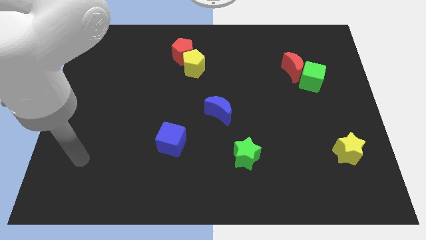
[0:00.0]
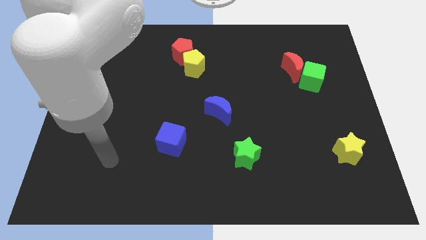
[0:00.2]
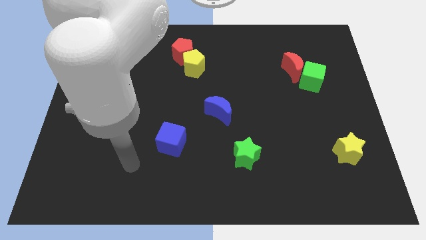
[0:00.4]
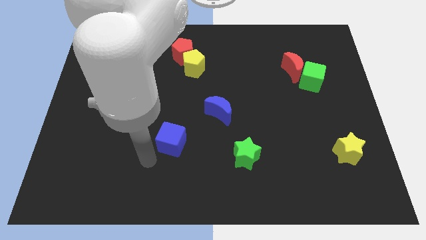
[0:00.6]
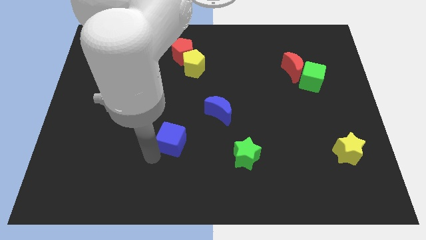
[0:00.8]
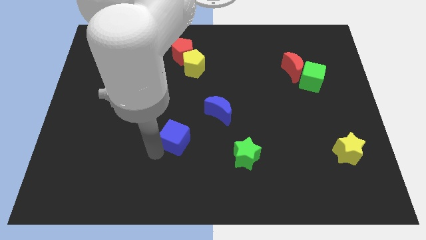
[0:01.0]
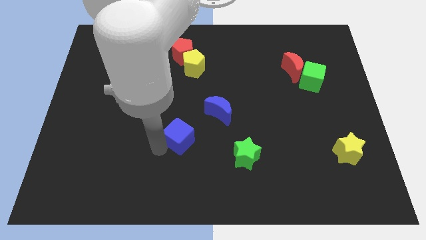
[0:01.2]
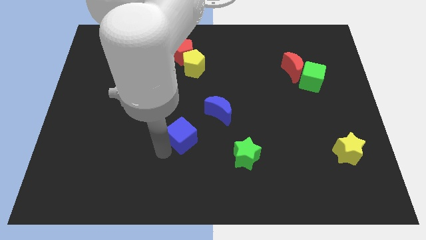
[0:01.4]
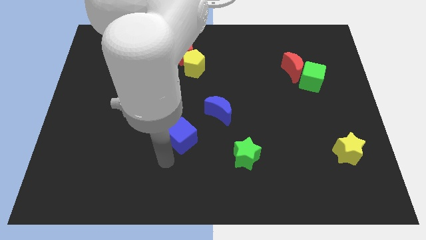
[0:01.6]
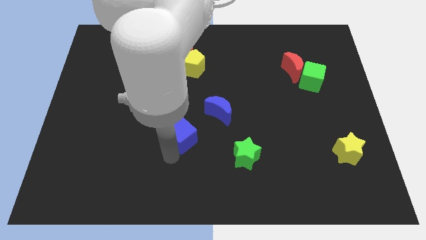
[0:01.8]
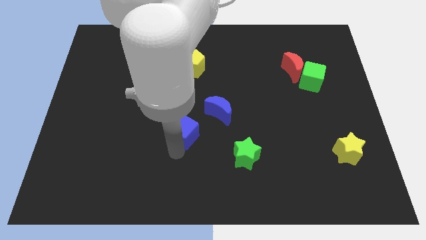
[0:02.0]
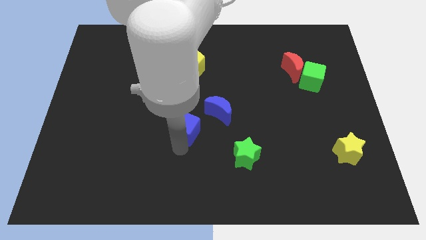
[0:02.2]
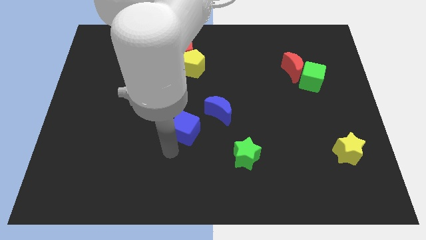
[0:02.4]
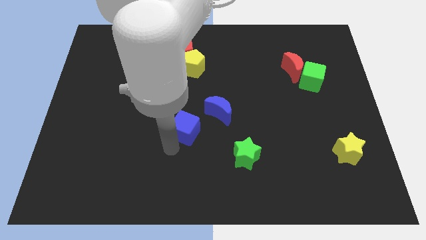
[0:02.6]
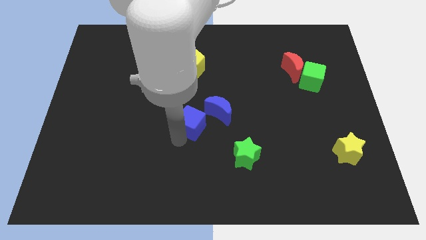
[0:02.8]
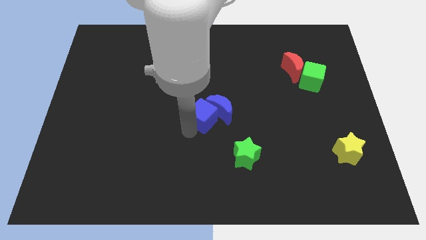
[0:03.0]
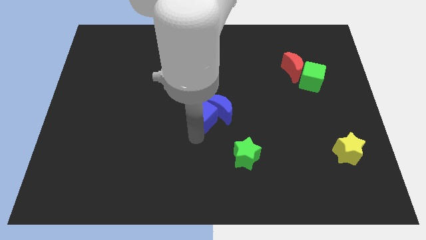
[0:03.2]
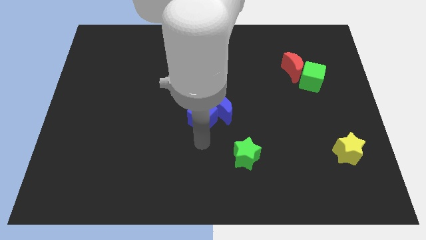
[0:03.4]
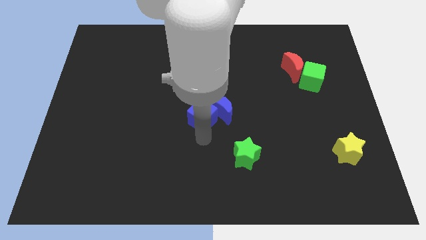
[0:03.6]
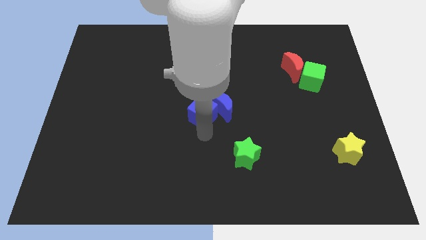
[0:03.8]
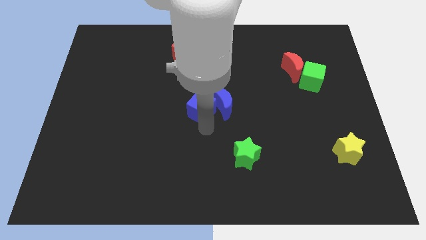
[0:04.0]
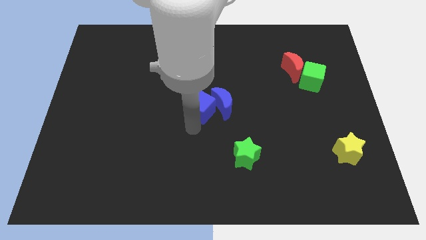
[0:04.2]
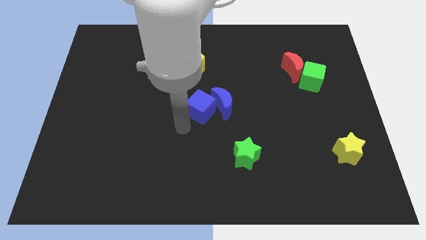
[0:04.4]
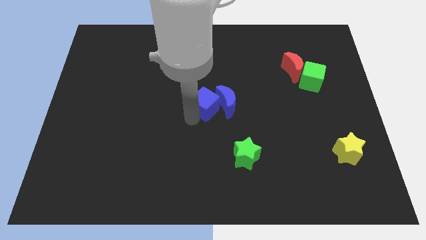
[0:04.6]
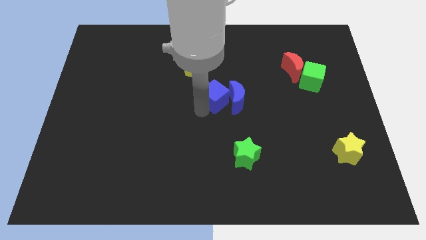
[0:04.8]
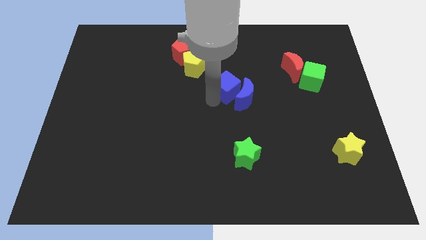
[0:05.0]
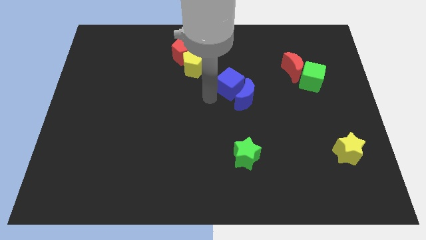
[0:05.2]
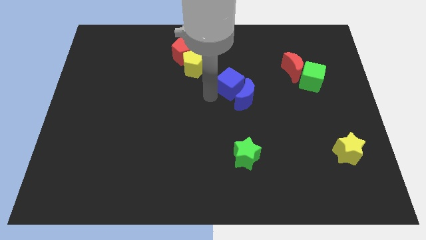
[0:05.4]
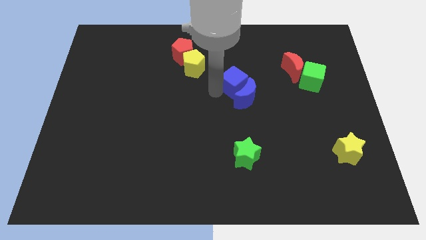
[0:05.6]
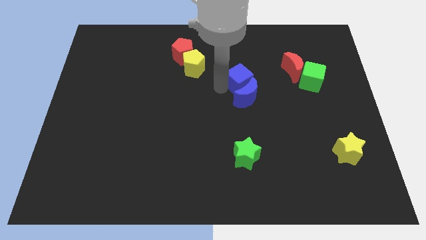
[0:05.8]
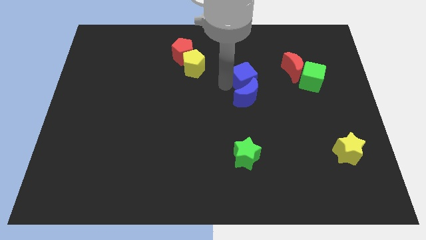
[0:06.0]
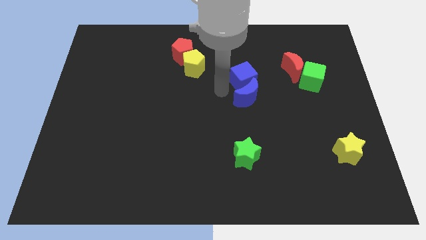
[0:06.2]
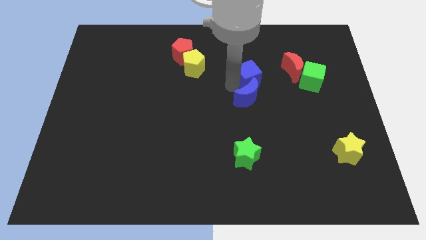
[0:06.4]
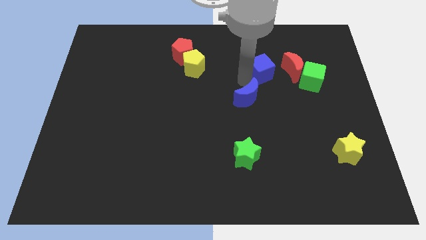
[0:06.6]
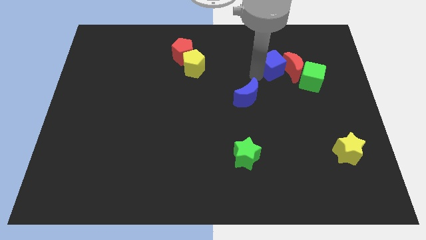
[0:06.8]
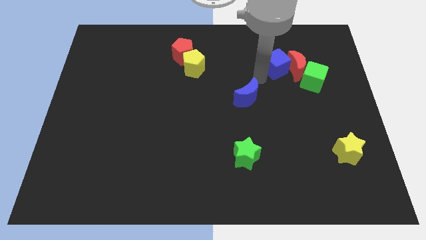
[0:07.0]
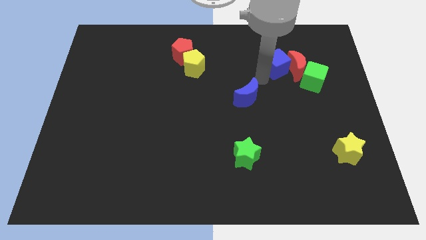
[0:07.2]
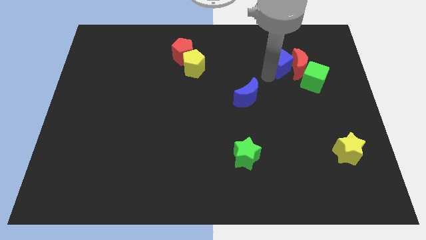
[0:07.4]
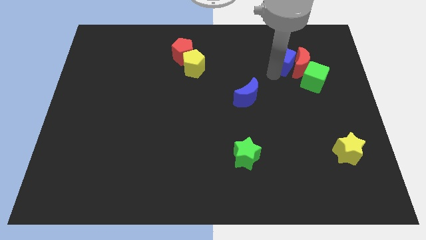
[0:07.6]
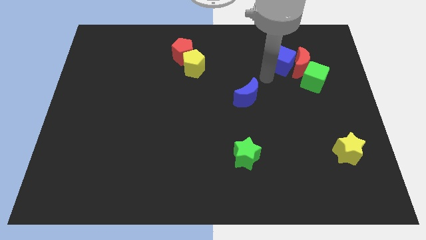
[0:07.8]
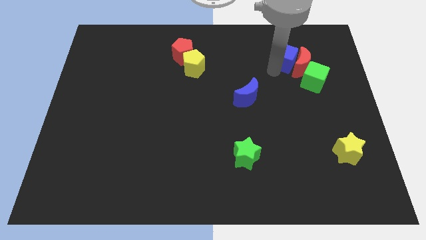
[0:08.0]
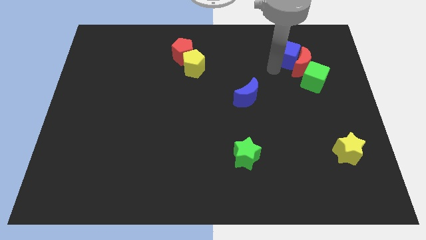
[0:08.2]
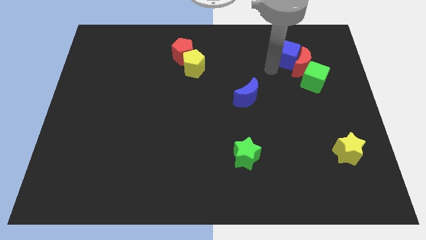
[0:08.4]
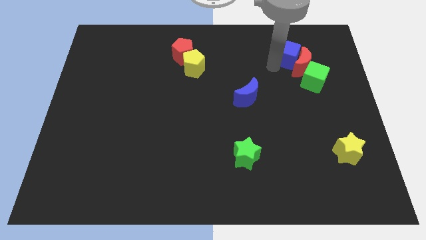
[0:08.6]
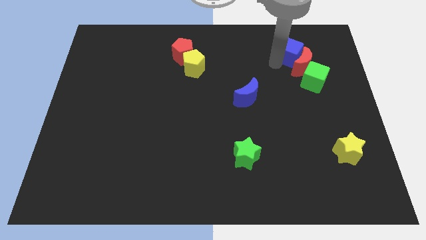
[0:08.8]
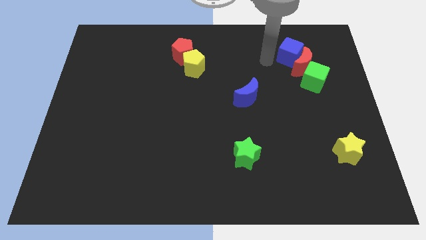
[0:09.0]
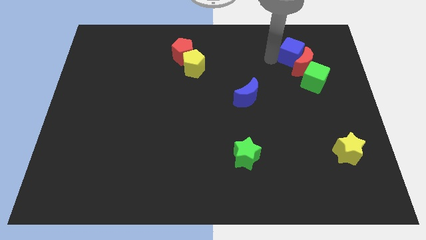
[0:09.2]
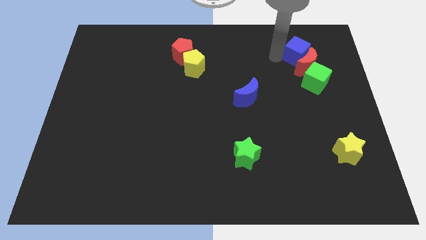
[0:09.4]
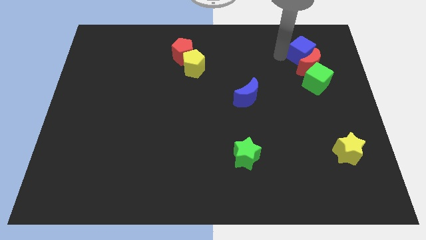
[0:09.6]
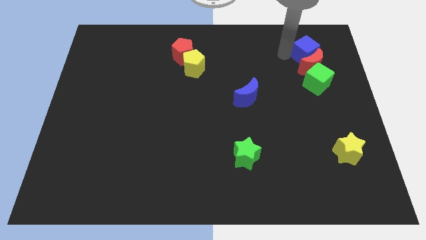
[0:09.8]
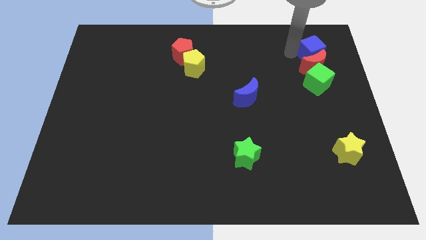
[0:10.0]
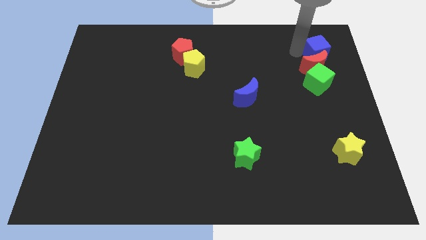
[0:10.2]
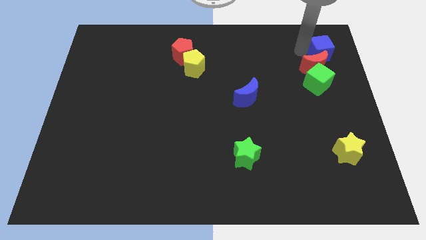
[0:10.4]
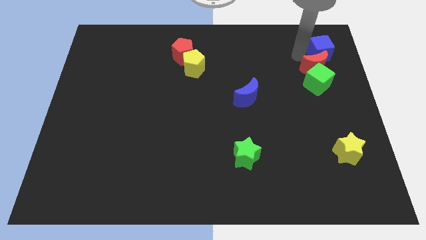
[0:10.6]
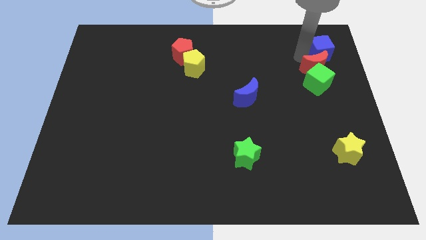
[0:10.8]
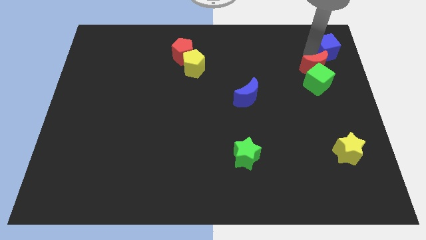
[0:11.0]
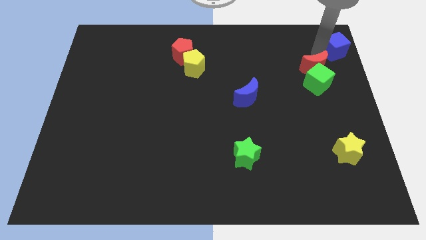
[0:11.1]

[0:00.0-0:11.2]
move the blue cube to the top right corner

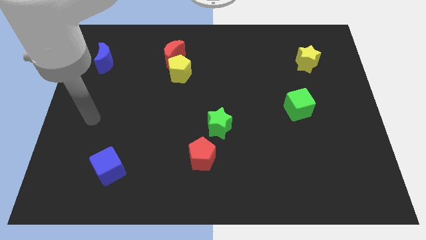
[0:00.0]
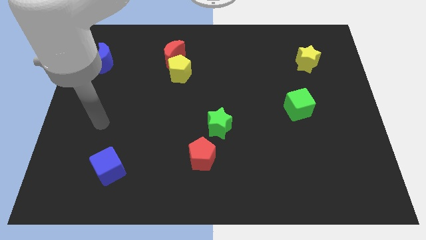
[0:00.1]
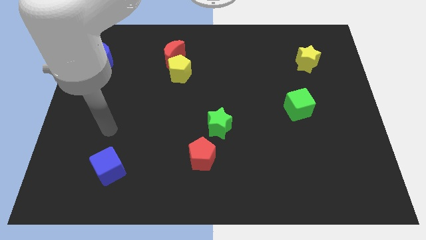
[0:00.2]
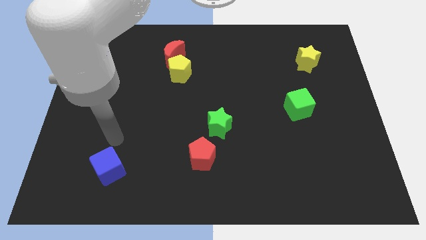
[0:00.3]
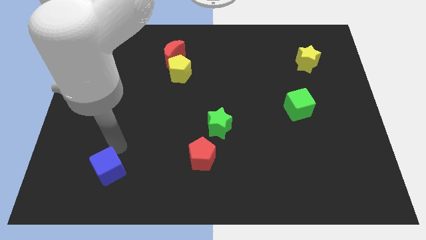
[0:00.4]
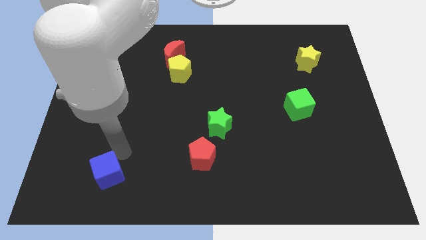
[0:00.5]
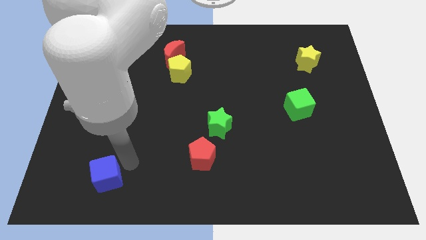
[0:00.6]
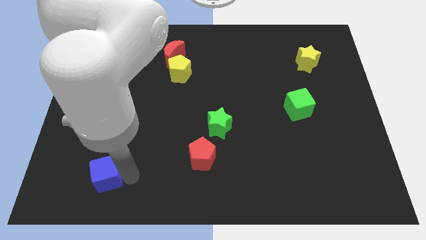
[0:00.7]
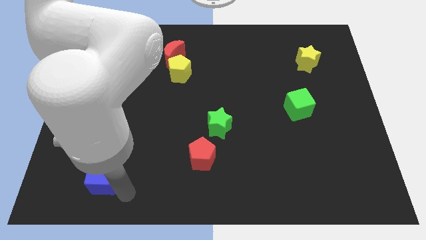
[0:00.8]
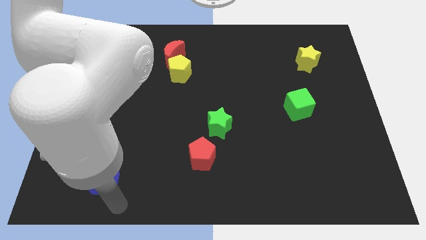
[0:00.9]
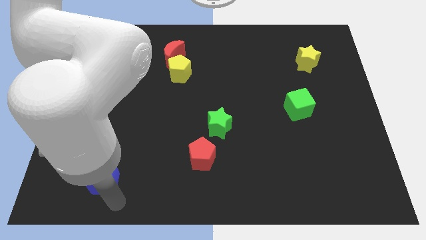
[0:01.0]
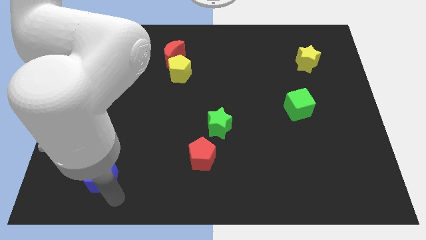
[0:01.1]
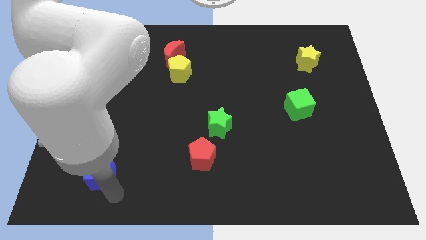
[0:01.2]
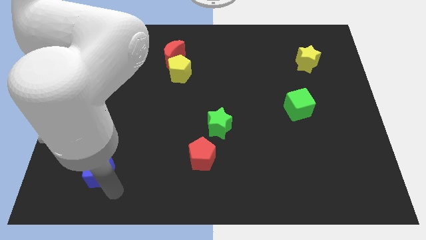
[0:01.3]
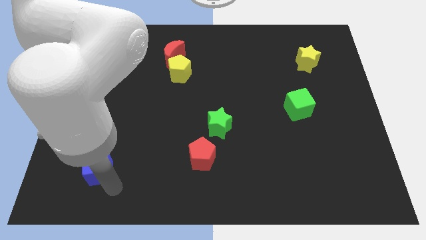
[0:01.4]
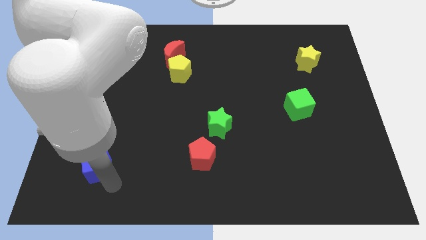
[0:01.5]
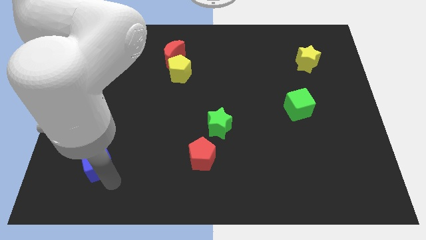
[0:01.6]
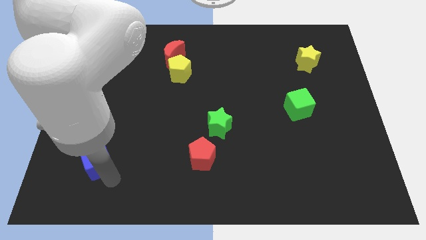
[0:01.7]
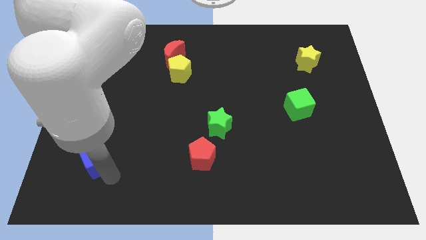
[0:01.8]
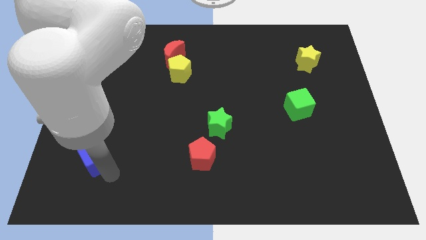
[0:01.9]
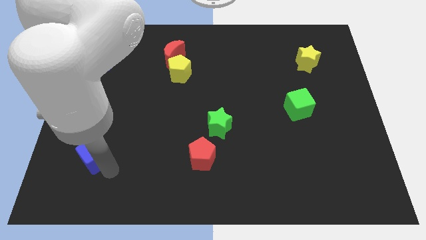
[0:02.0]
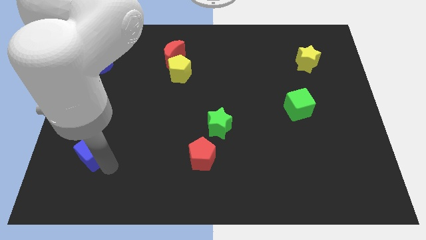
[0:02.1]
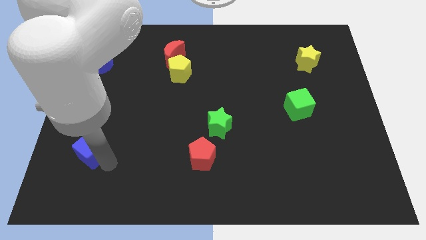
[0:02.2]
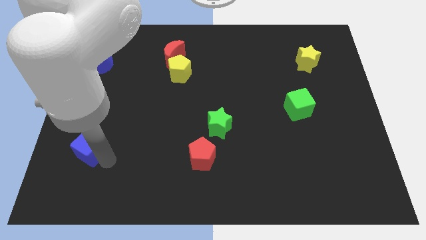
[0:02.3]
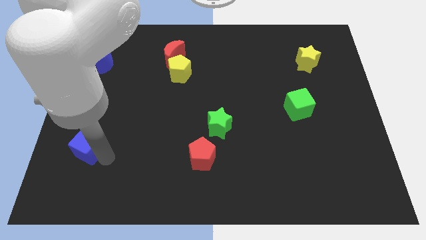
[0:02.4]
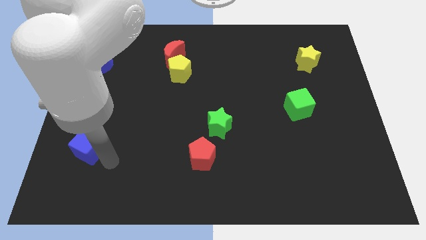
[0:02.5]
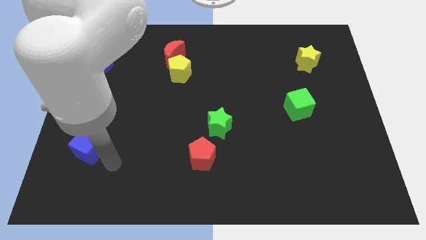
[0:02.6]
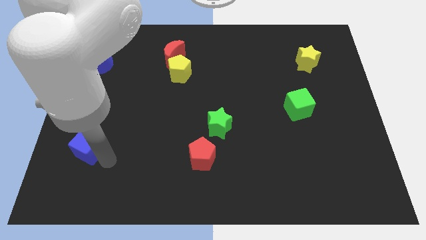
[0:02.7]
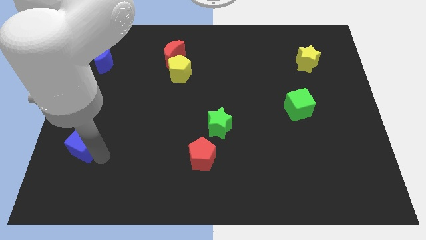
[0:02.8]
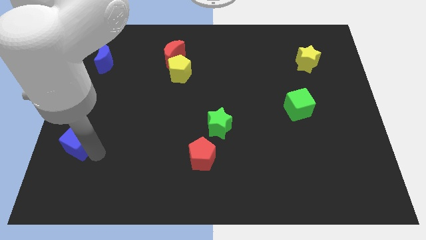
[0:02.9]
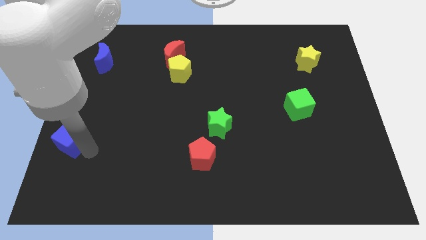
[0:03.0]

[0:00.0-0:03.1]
slide the blue cube to the center left
